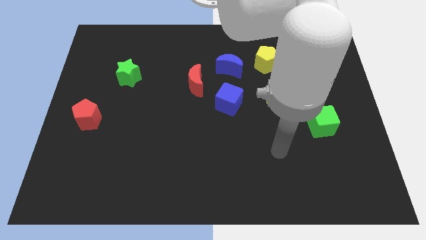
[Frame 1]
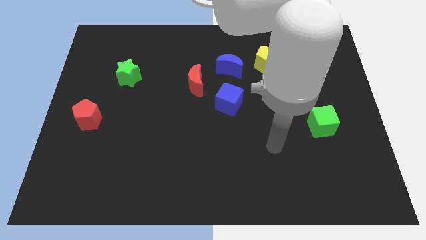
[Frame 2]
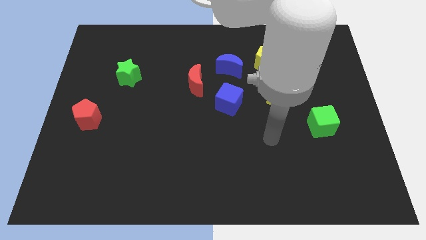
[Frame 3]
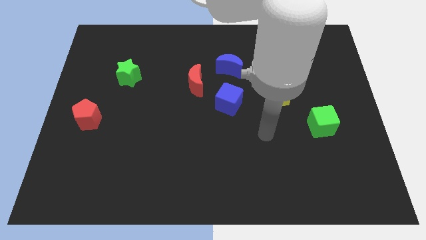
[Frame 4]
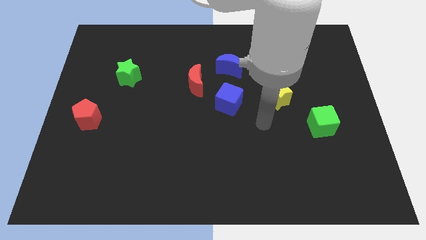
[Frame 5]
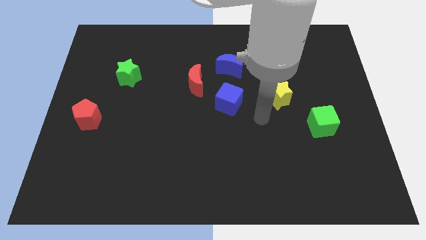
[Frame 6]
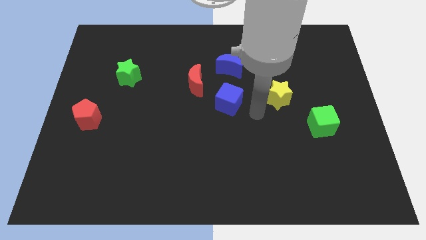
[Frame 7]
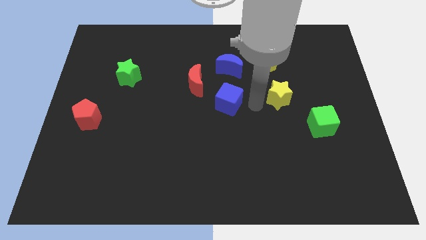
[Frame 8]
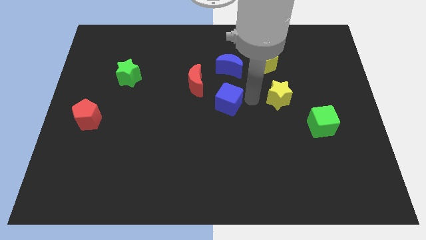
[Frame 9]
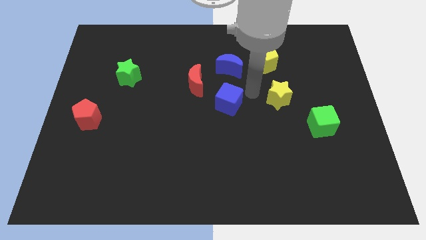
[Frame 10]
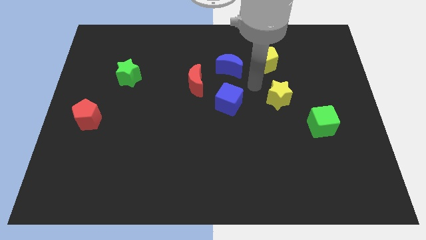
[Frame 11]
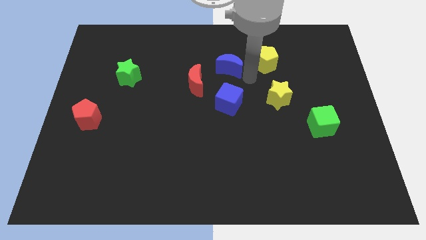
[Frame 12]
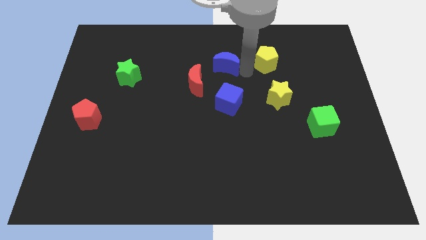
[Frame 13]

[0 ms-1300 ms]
pull the yellow pentagon apart from the blue moon

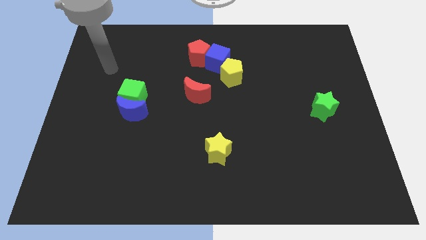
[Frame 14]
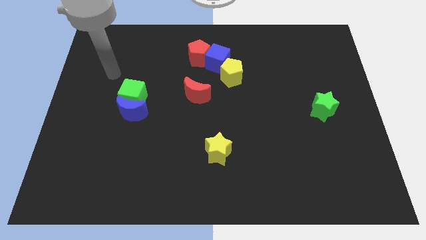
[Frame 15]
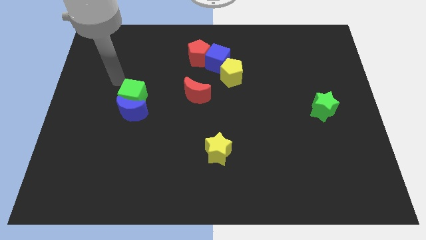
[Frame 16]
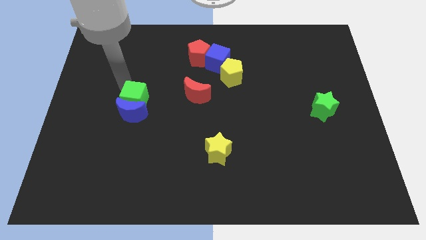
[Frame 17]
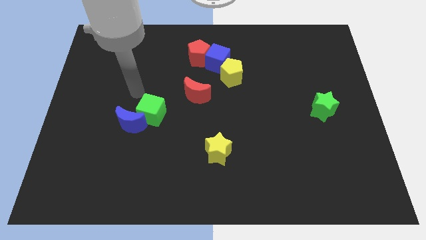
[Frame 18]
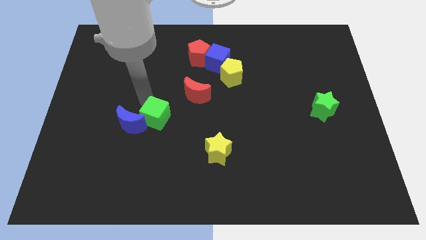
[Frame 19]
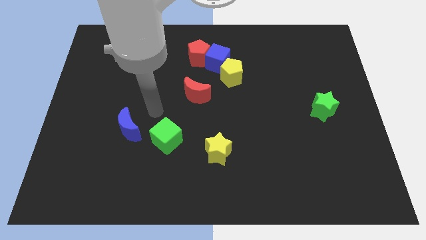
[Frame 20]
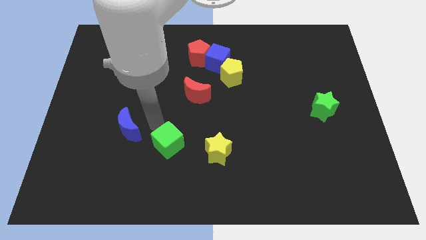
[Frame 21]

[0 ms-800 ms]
separate the blue moon from the green cube

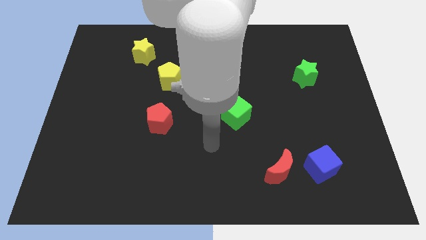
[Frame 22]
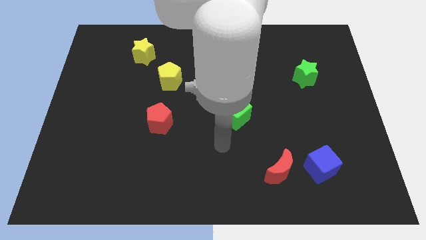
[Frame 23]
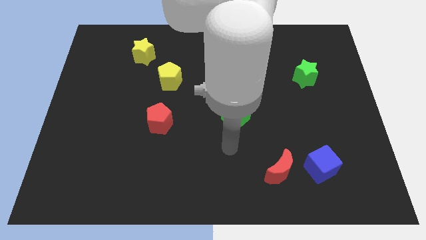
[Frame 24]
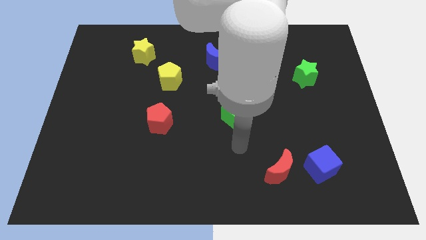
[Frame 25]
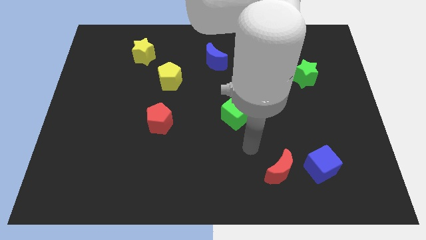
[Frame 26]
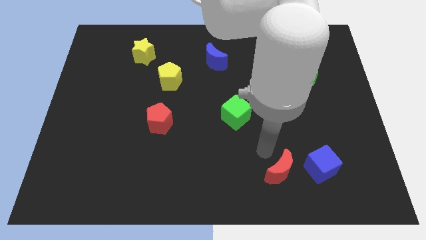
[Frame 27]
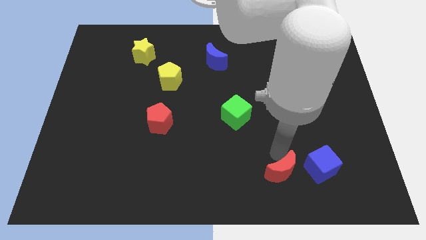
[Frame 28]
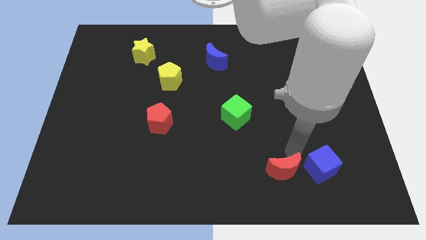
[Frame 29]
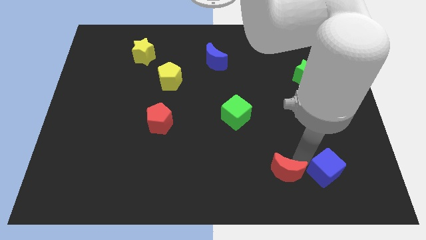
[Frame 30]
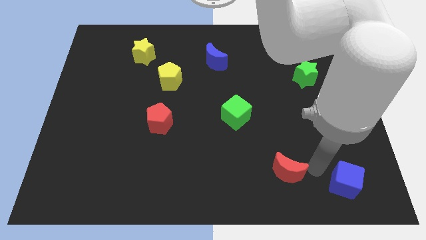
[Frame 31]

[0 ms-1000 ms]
move the red moon away from the blue cube

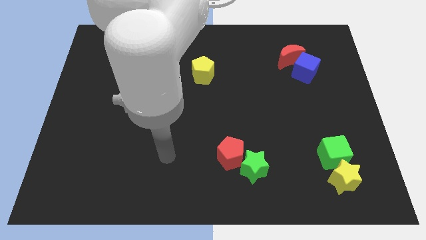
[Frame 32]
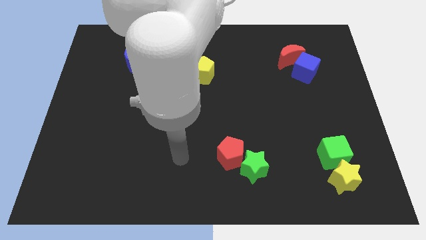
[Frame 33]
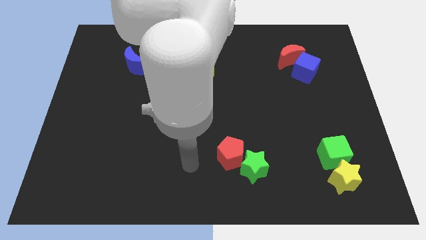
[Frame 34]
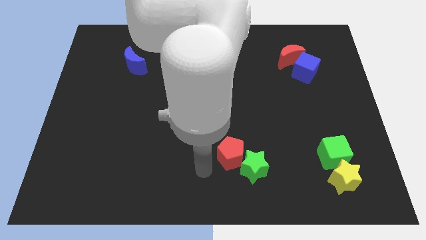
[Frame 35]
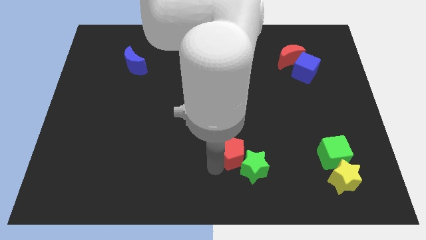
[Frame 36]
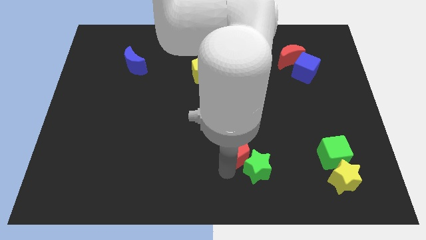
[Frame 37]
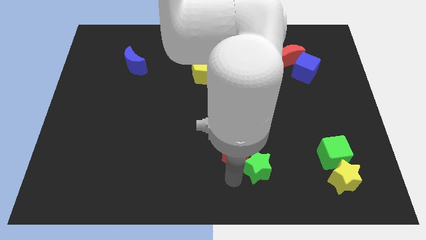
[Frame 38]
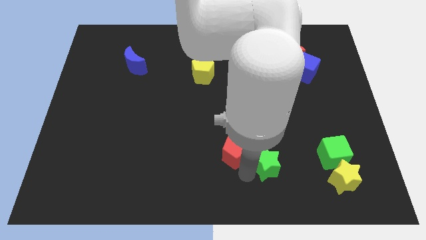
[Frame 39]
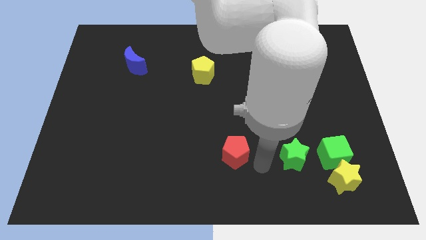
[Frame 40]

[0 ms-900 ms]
move the red pentagon away from the green star

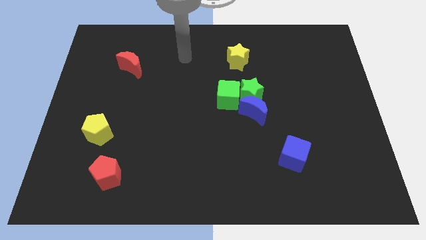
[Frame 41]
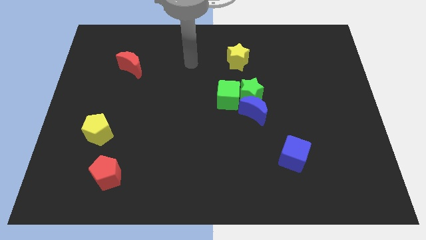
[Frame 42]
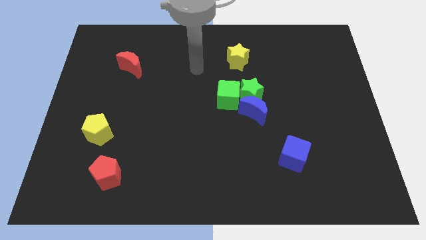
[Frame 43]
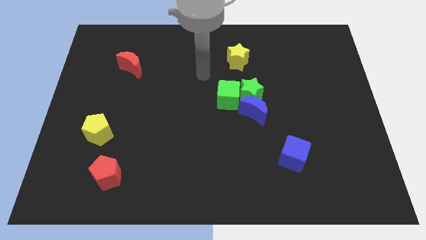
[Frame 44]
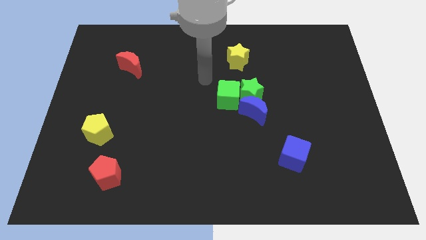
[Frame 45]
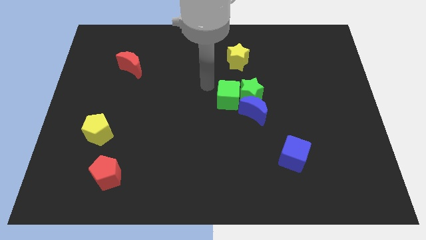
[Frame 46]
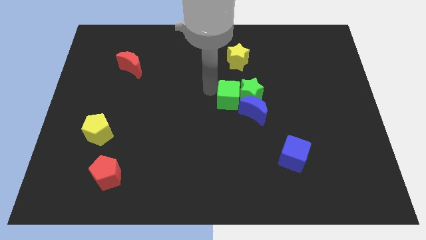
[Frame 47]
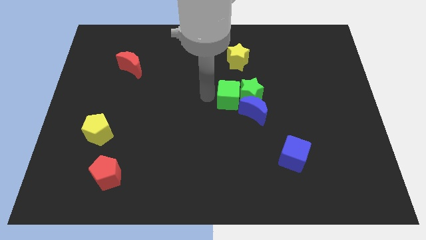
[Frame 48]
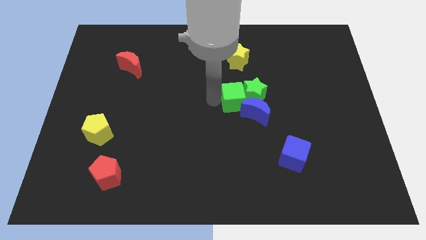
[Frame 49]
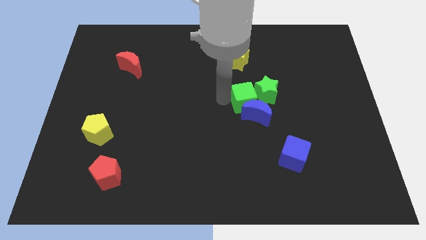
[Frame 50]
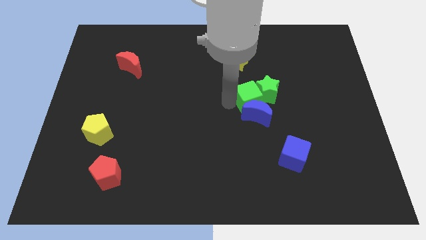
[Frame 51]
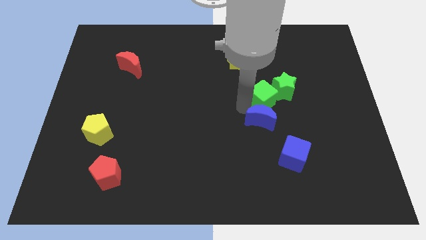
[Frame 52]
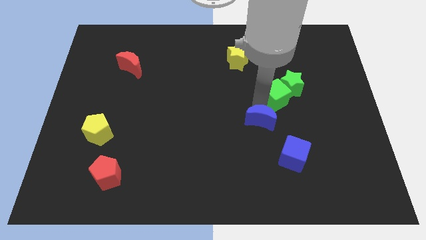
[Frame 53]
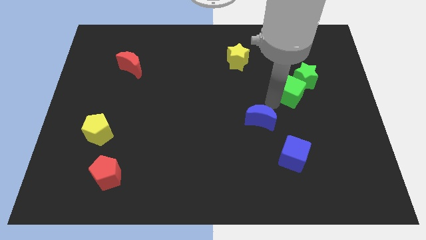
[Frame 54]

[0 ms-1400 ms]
separate the green star from the blue moon and green cube

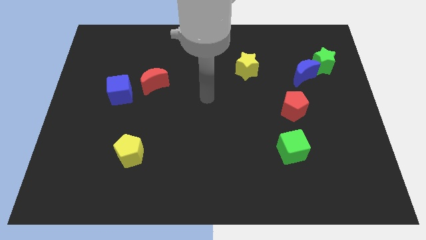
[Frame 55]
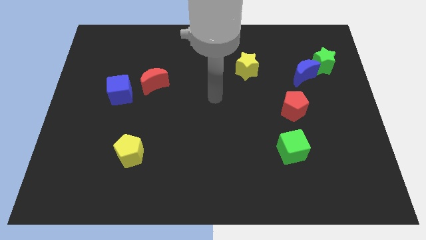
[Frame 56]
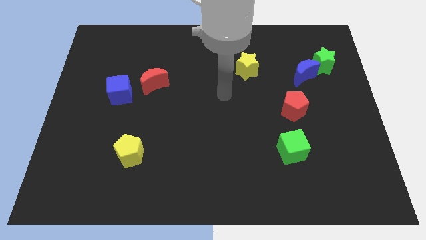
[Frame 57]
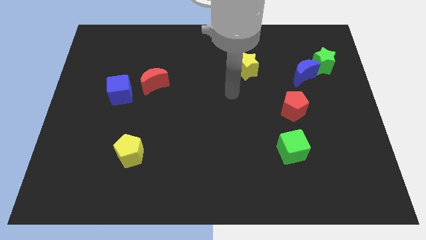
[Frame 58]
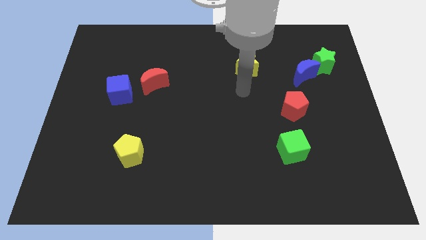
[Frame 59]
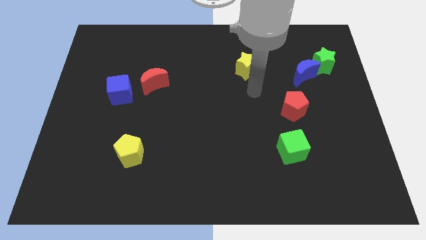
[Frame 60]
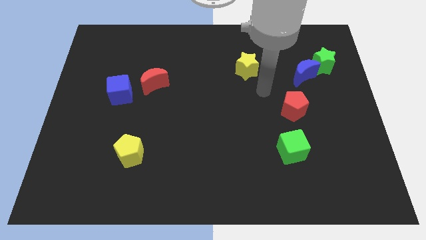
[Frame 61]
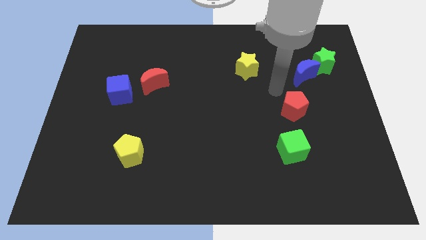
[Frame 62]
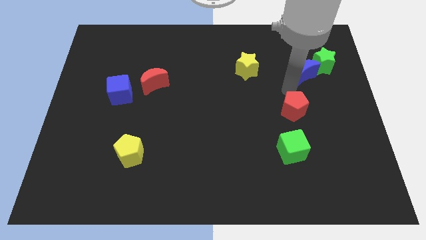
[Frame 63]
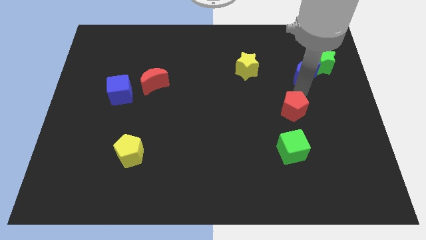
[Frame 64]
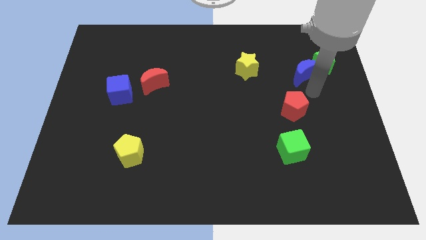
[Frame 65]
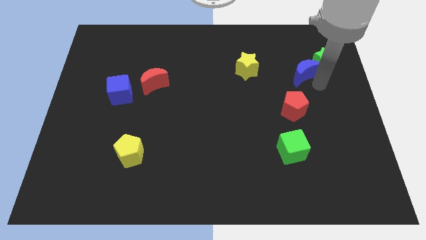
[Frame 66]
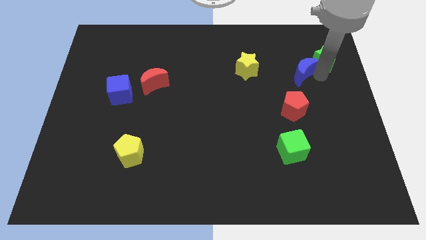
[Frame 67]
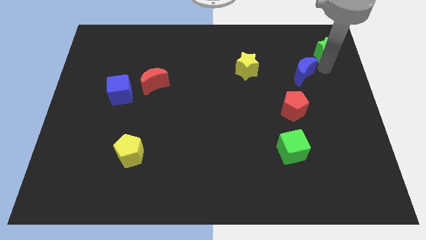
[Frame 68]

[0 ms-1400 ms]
separate the blue moon from the green star

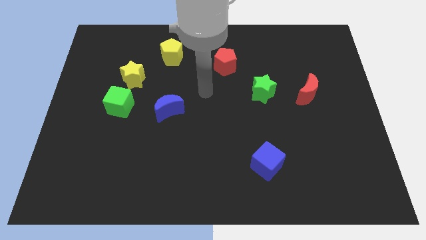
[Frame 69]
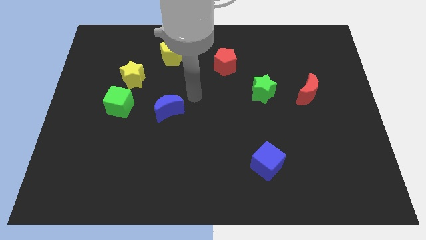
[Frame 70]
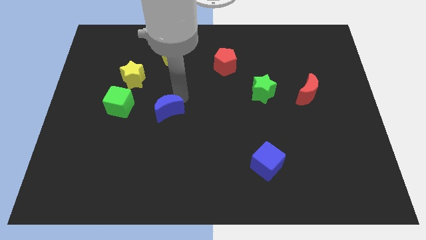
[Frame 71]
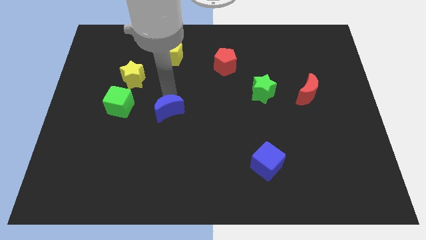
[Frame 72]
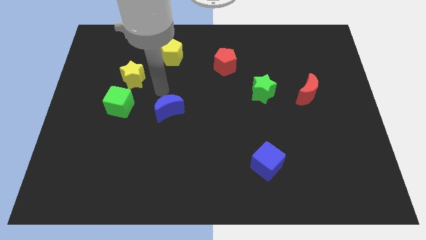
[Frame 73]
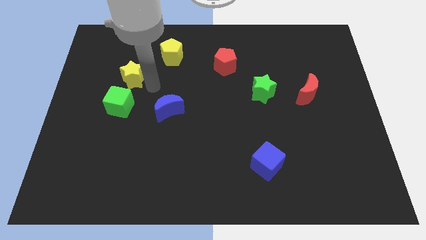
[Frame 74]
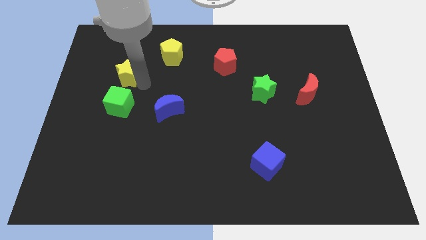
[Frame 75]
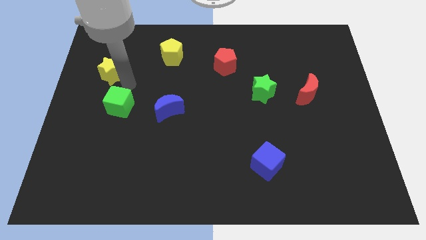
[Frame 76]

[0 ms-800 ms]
move the green cube away from the yellow star

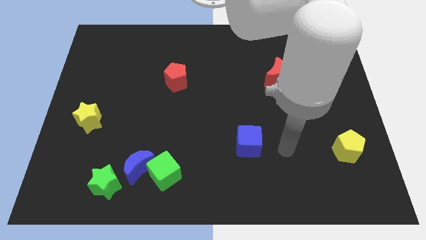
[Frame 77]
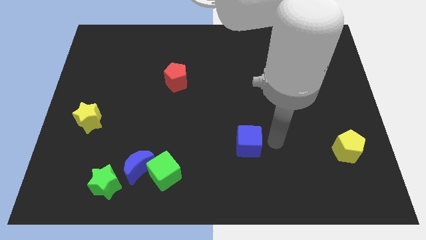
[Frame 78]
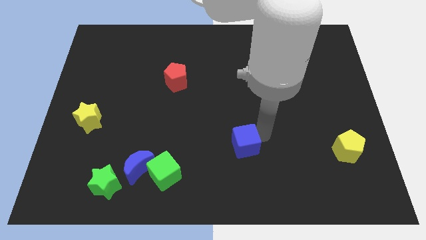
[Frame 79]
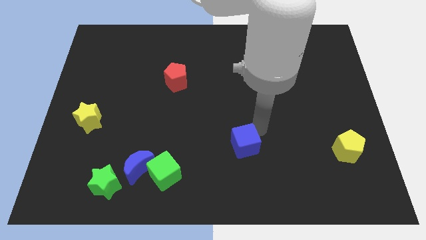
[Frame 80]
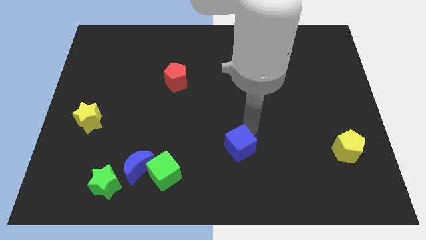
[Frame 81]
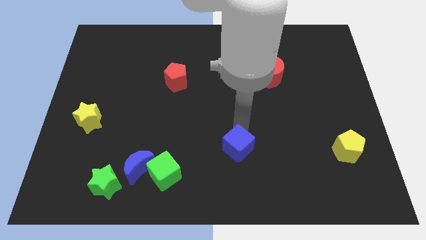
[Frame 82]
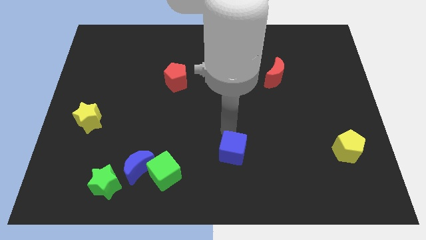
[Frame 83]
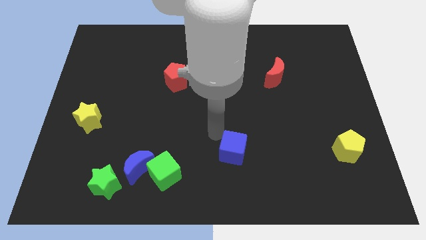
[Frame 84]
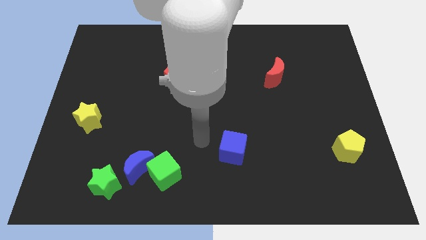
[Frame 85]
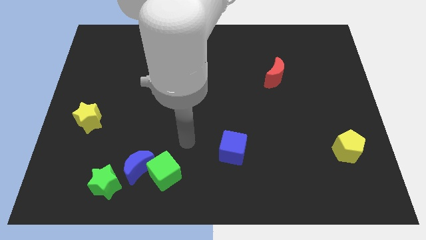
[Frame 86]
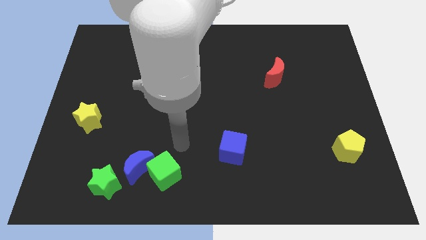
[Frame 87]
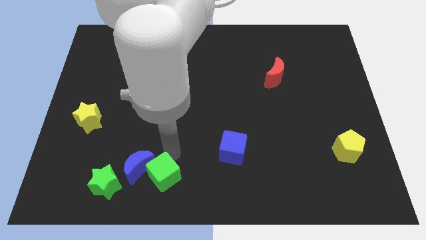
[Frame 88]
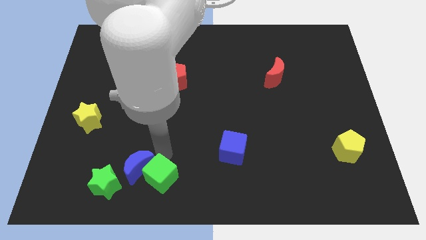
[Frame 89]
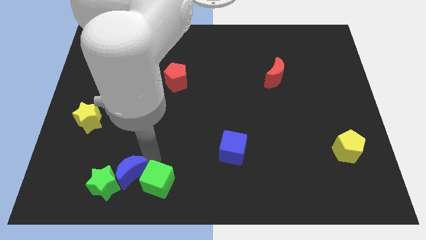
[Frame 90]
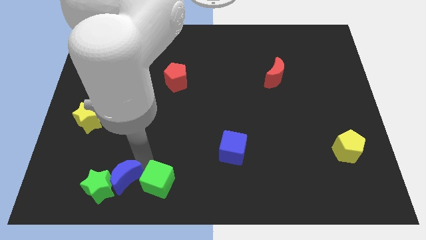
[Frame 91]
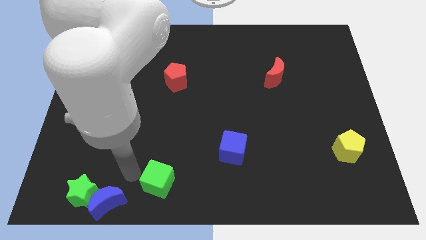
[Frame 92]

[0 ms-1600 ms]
move the green cube away from the blue moon
